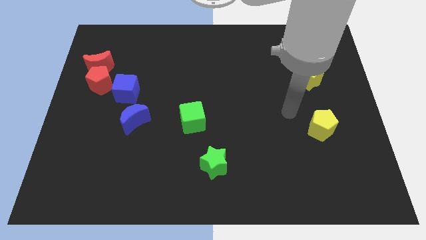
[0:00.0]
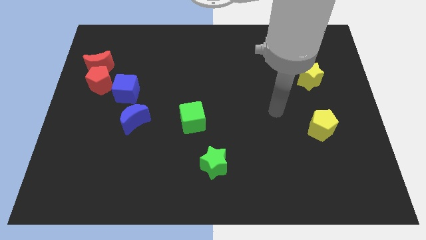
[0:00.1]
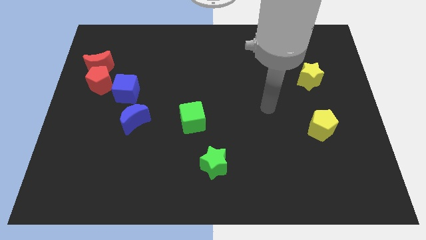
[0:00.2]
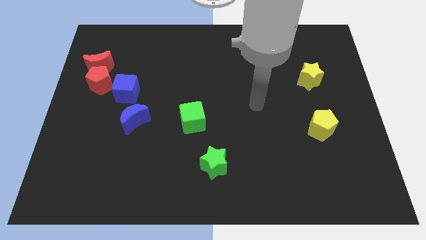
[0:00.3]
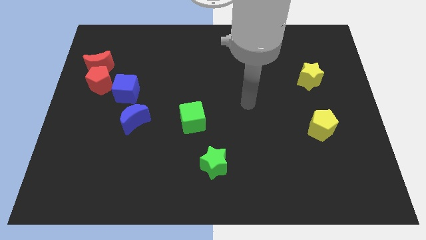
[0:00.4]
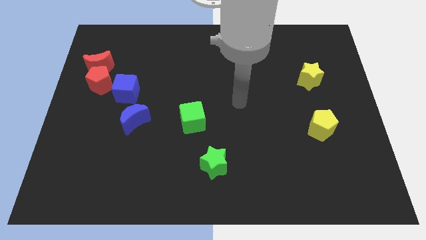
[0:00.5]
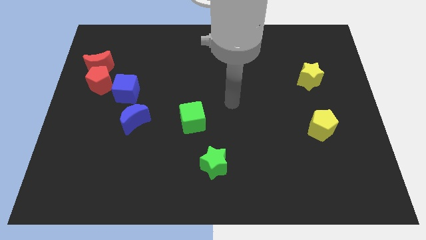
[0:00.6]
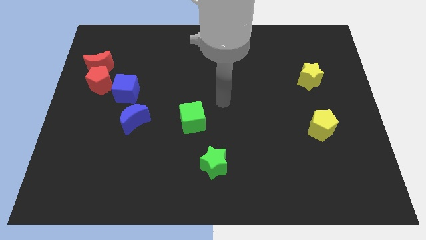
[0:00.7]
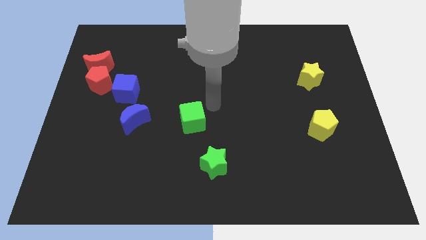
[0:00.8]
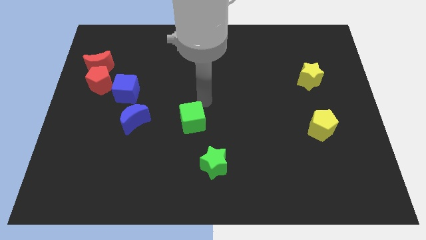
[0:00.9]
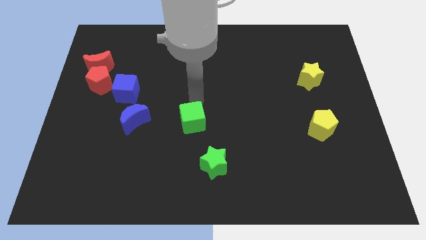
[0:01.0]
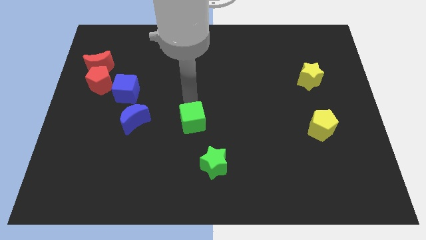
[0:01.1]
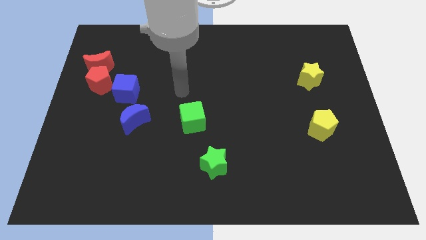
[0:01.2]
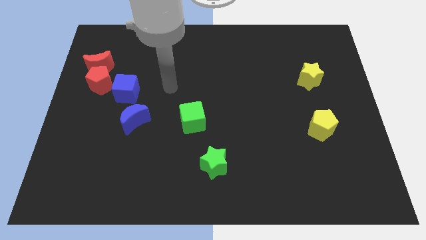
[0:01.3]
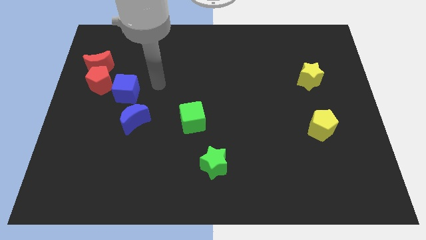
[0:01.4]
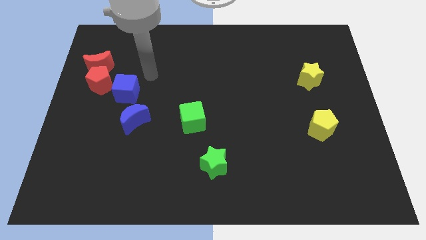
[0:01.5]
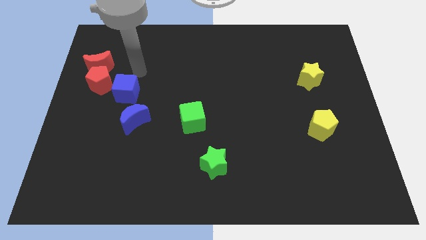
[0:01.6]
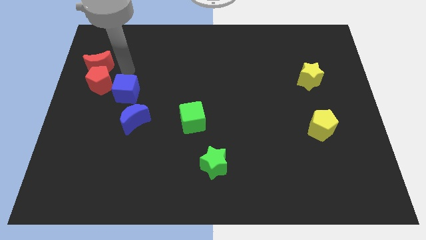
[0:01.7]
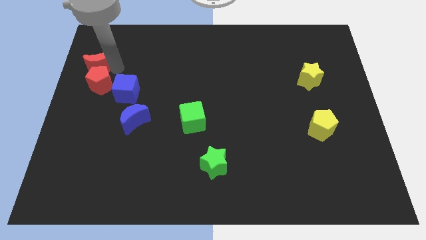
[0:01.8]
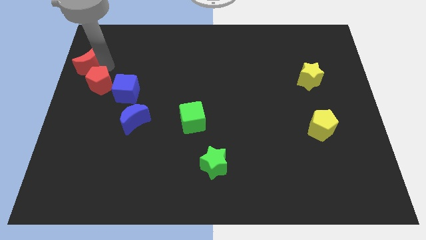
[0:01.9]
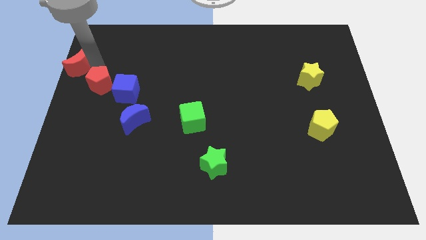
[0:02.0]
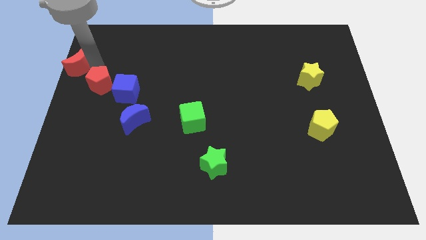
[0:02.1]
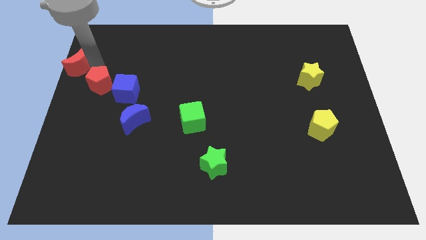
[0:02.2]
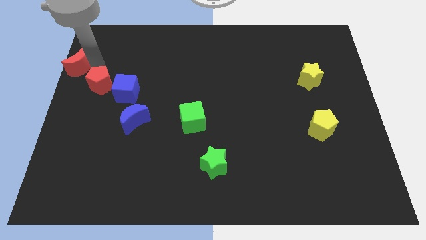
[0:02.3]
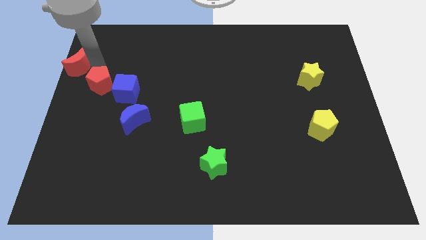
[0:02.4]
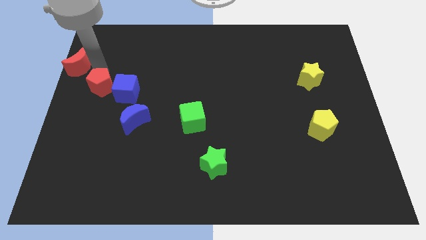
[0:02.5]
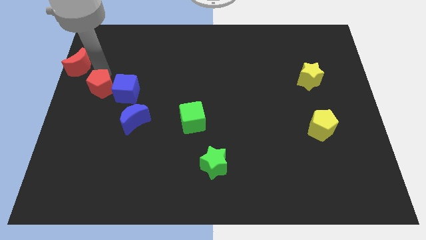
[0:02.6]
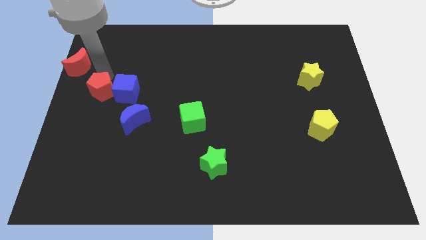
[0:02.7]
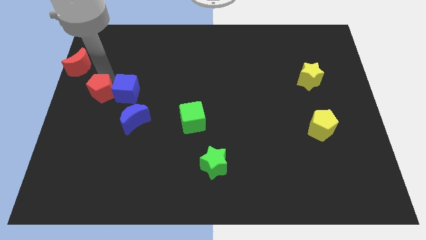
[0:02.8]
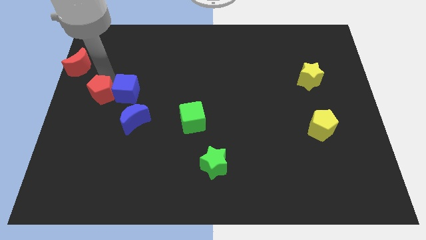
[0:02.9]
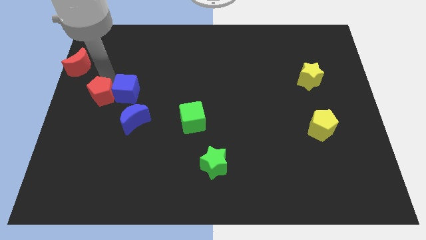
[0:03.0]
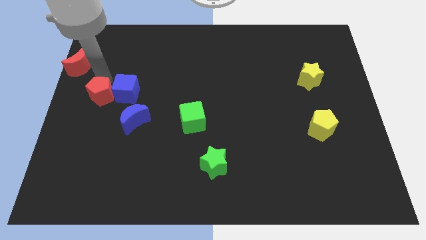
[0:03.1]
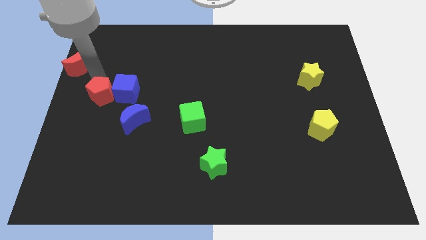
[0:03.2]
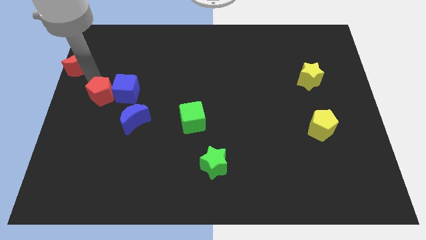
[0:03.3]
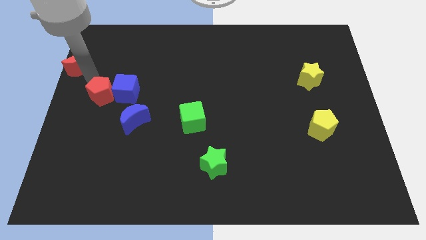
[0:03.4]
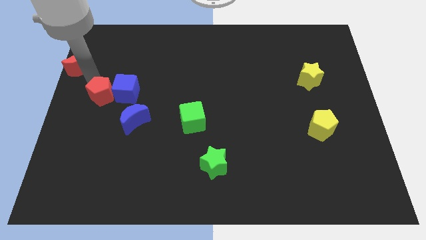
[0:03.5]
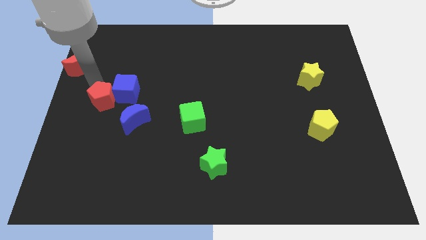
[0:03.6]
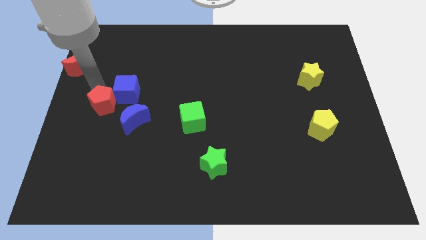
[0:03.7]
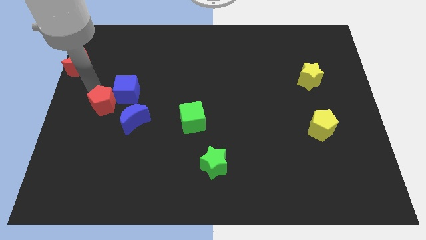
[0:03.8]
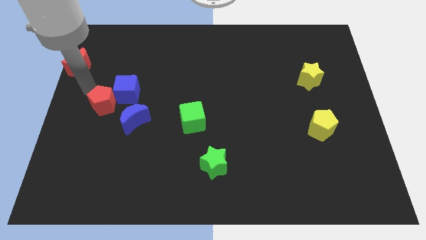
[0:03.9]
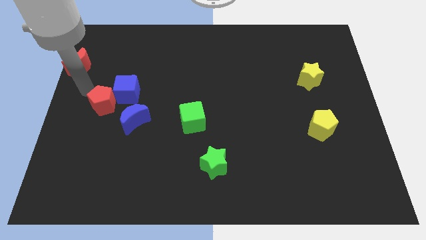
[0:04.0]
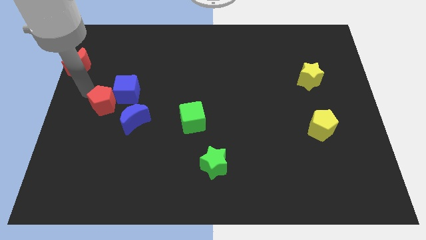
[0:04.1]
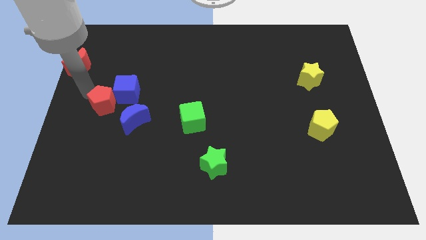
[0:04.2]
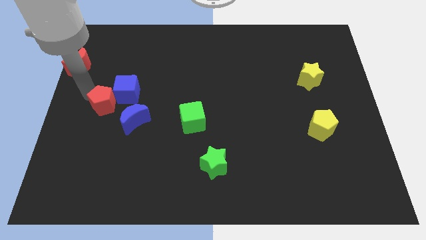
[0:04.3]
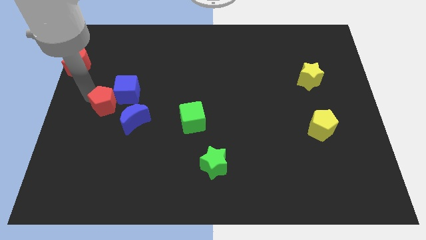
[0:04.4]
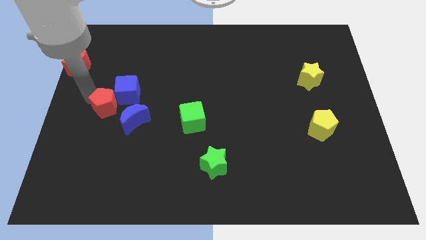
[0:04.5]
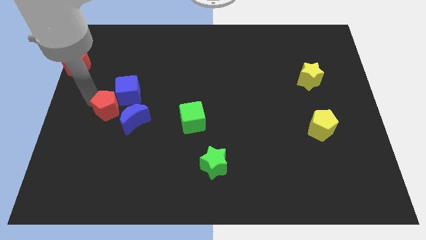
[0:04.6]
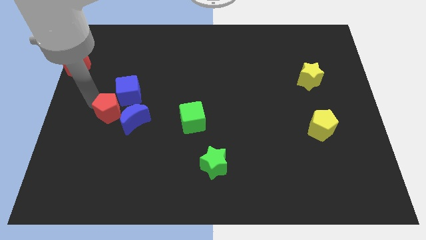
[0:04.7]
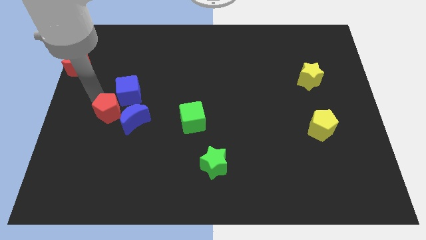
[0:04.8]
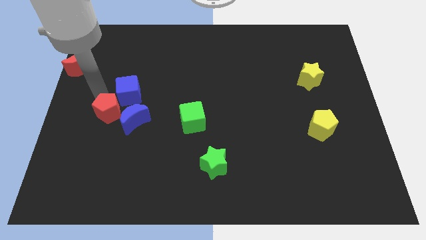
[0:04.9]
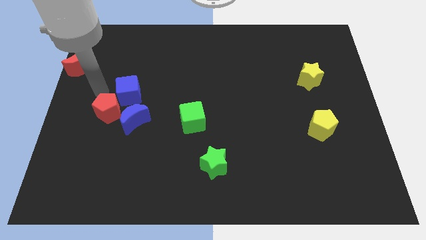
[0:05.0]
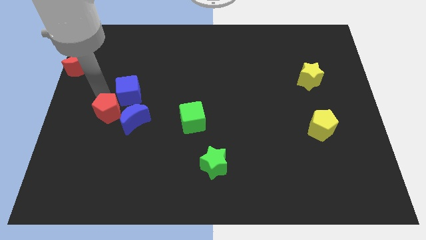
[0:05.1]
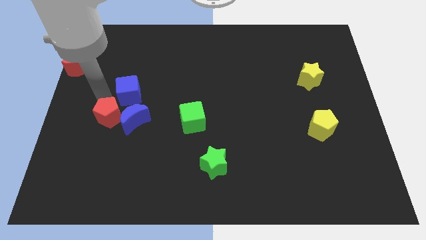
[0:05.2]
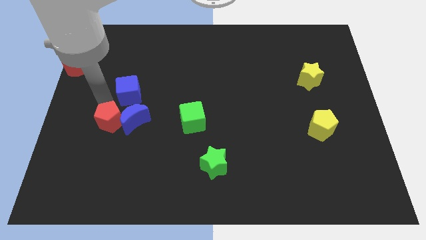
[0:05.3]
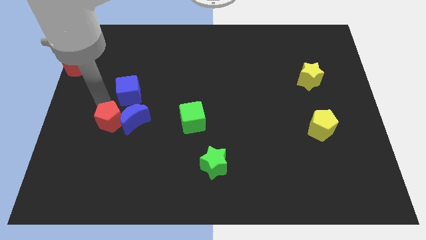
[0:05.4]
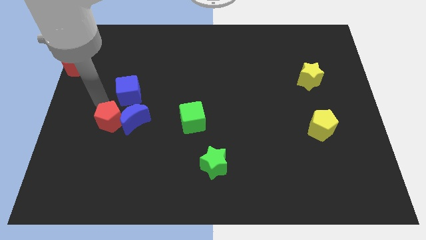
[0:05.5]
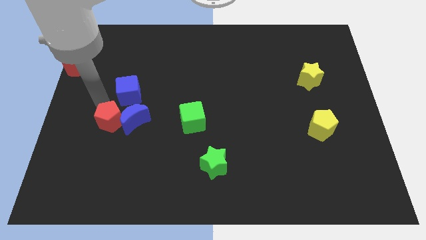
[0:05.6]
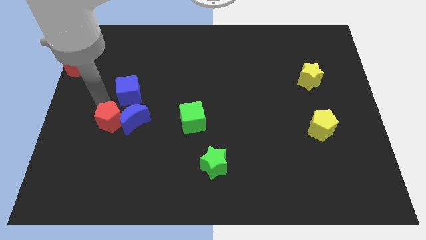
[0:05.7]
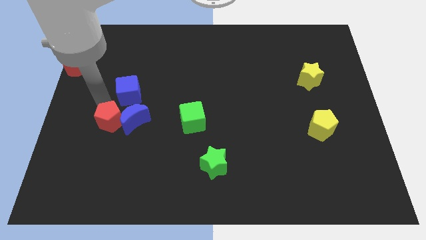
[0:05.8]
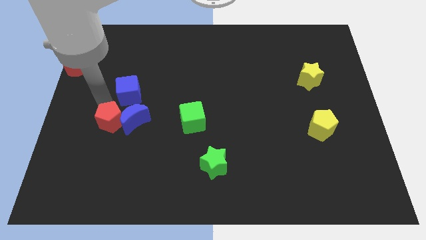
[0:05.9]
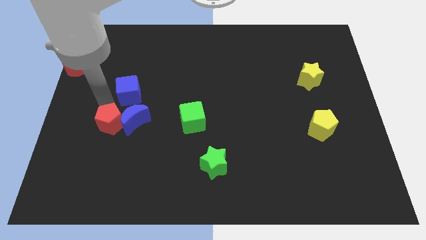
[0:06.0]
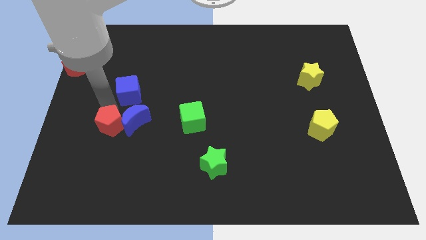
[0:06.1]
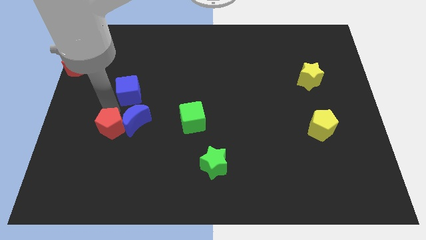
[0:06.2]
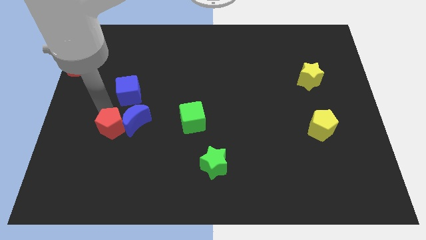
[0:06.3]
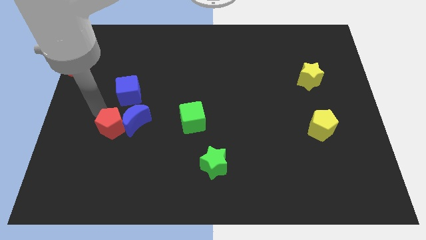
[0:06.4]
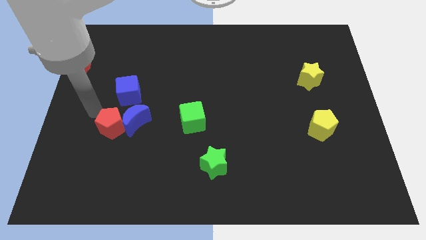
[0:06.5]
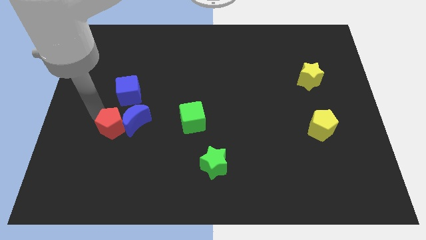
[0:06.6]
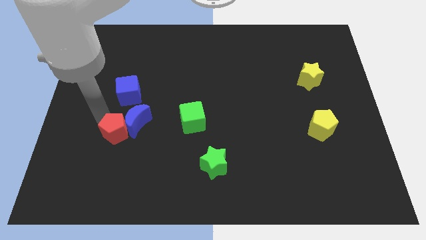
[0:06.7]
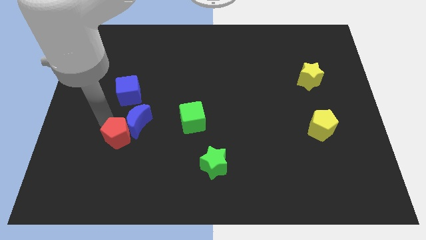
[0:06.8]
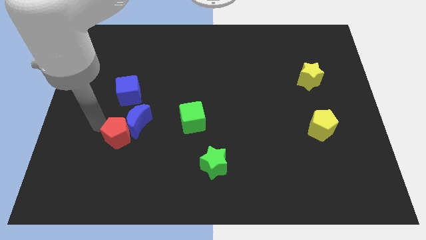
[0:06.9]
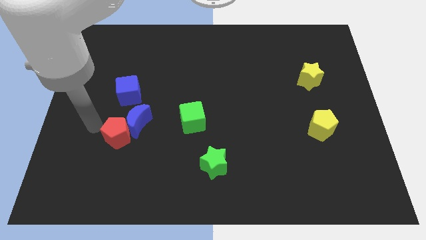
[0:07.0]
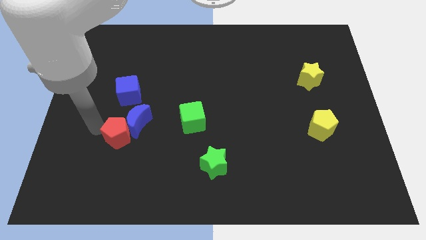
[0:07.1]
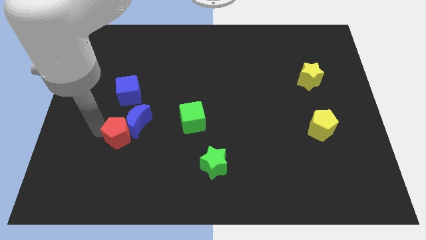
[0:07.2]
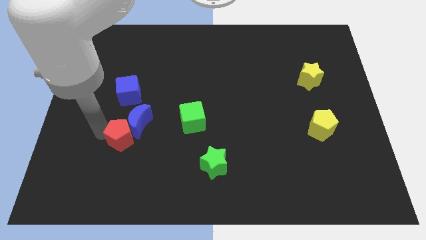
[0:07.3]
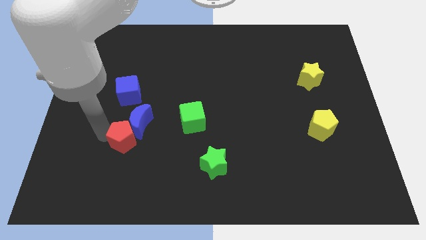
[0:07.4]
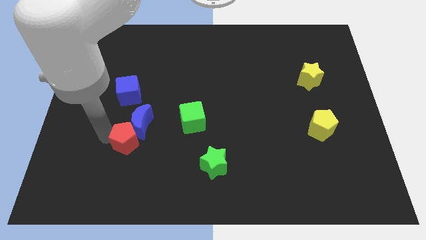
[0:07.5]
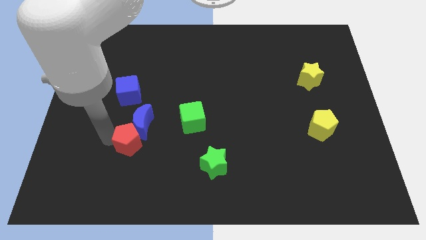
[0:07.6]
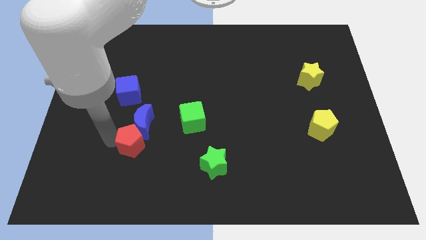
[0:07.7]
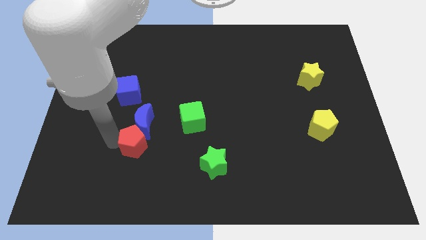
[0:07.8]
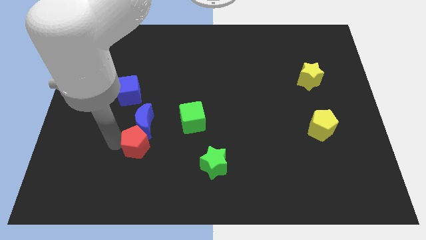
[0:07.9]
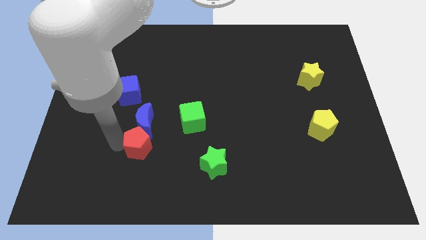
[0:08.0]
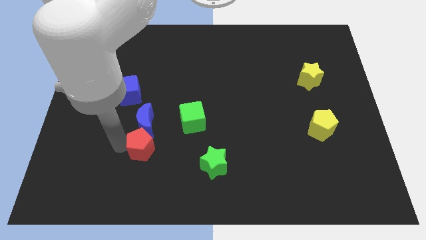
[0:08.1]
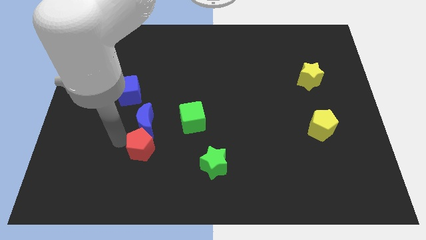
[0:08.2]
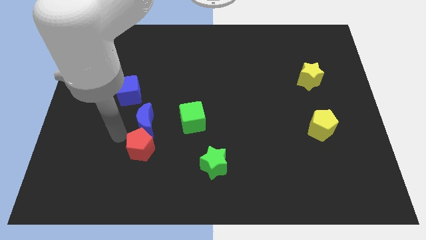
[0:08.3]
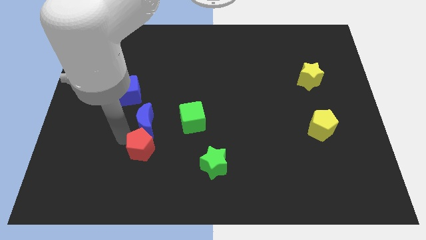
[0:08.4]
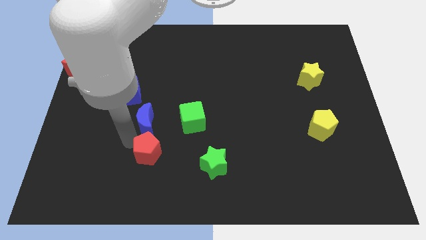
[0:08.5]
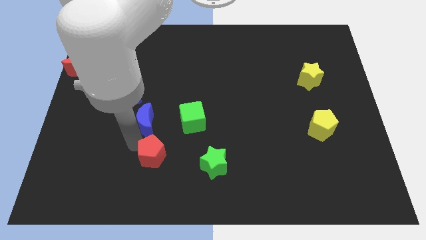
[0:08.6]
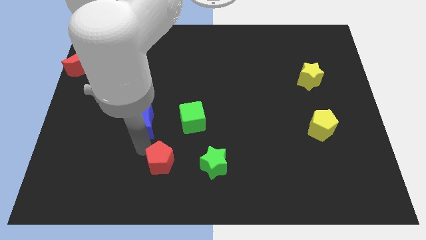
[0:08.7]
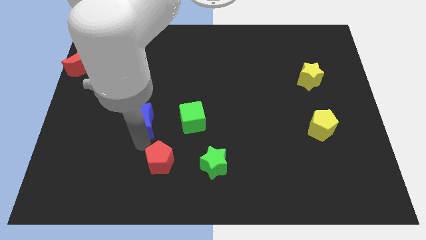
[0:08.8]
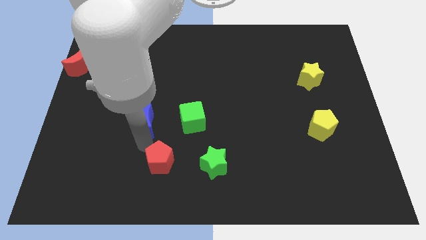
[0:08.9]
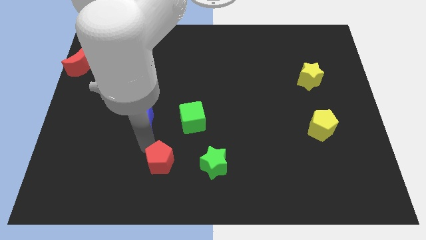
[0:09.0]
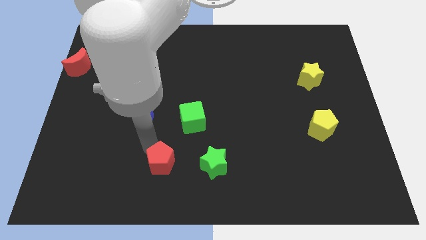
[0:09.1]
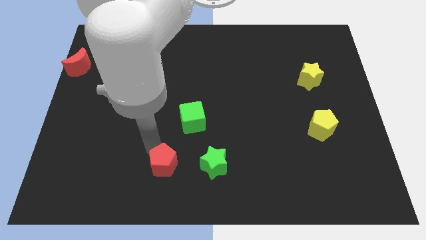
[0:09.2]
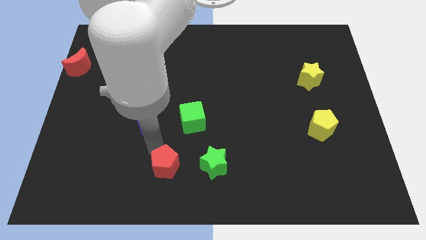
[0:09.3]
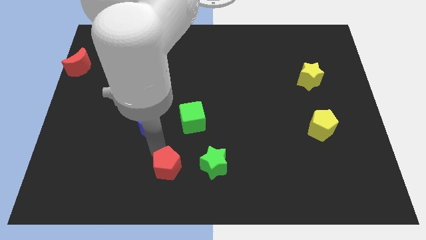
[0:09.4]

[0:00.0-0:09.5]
put the red pentagon to the bottom side
